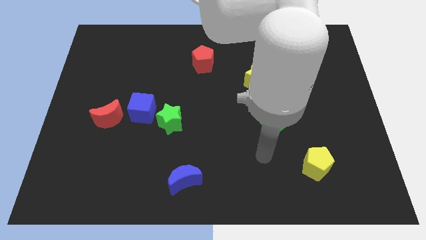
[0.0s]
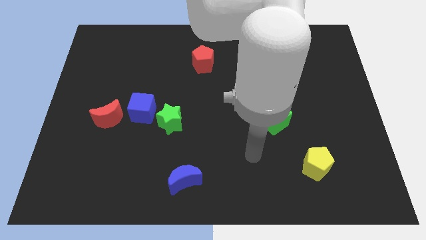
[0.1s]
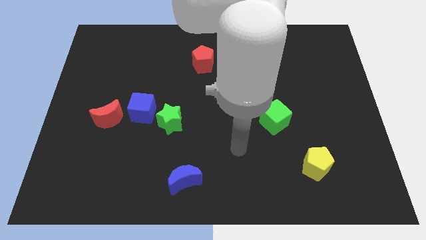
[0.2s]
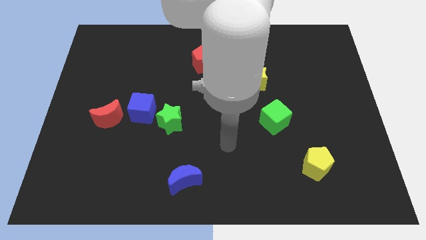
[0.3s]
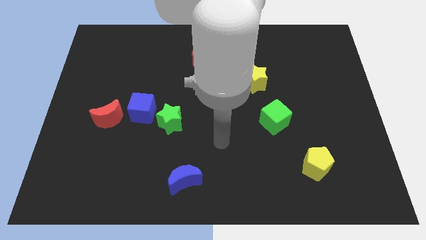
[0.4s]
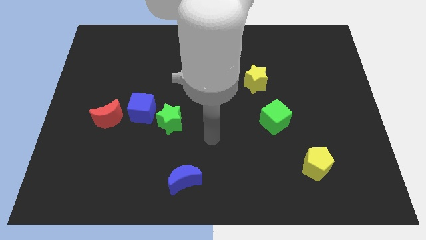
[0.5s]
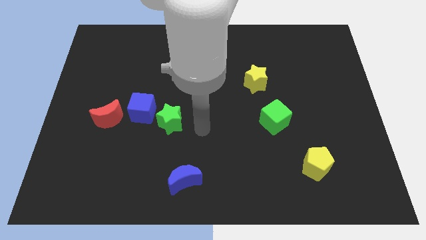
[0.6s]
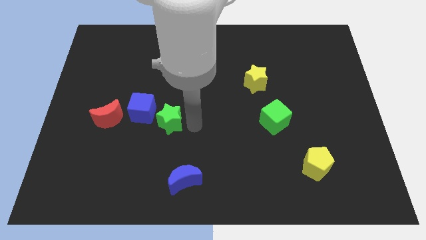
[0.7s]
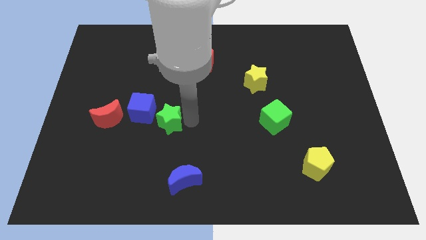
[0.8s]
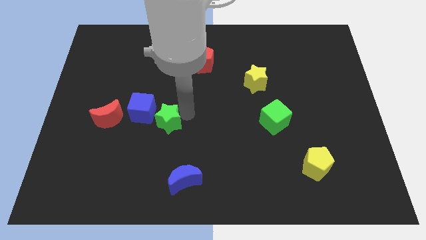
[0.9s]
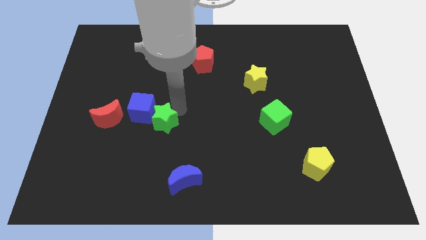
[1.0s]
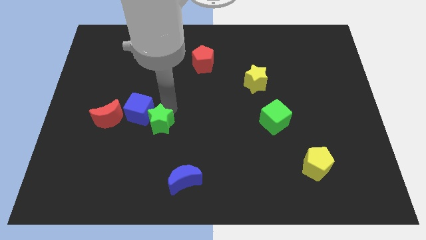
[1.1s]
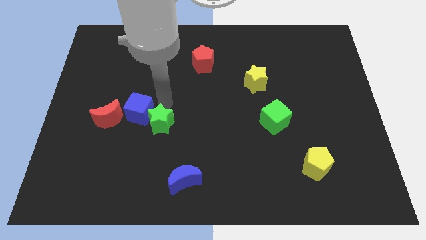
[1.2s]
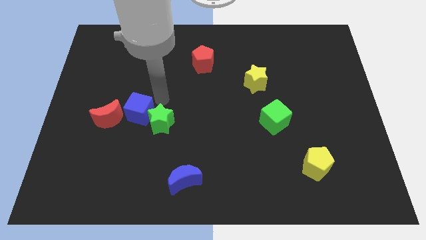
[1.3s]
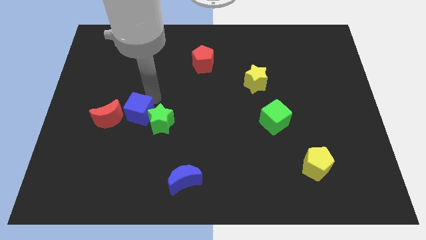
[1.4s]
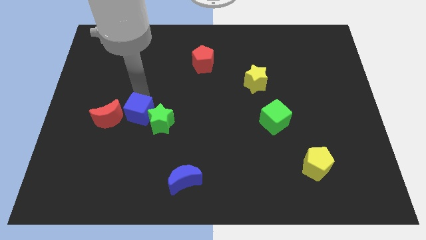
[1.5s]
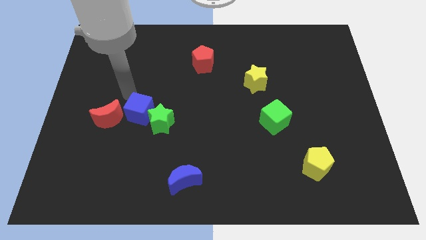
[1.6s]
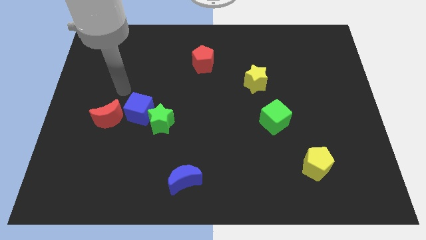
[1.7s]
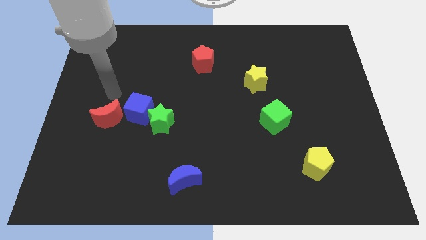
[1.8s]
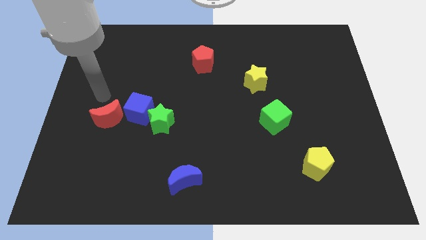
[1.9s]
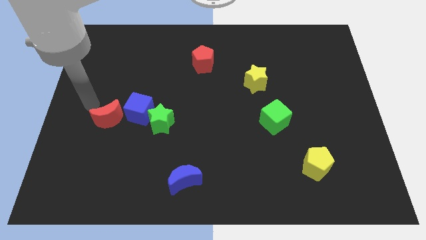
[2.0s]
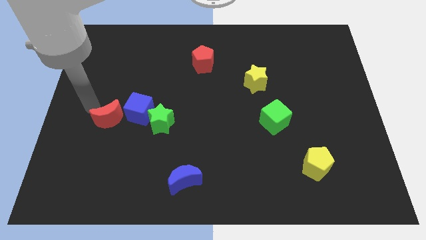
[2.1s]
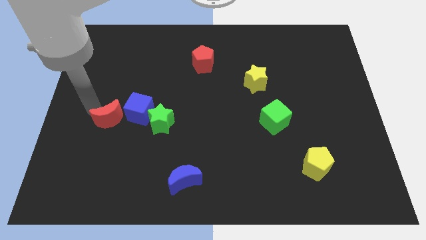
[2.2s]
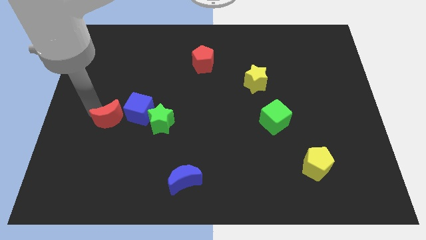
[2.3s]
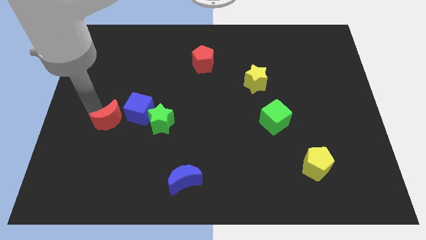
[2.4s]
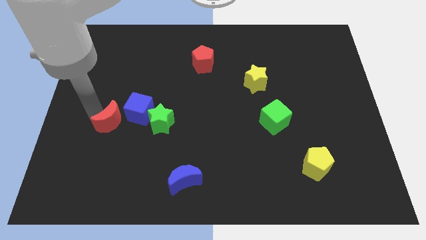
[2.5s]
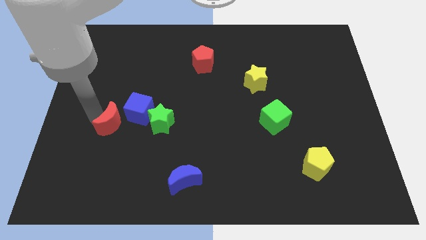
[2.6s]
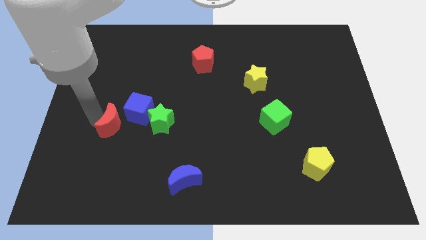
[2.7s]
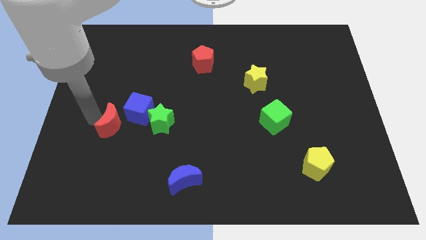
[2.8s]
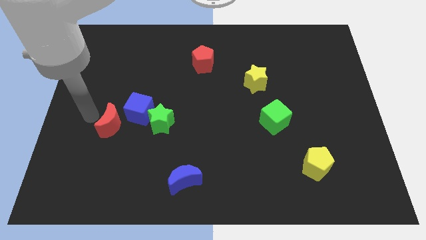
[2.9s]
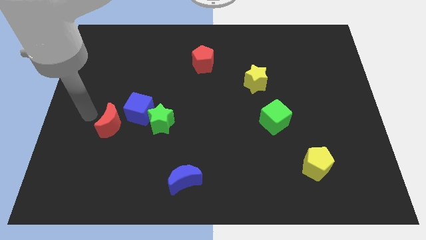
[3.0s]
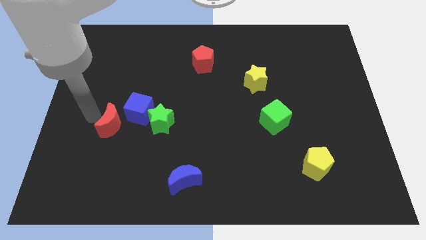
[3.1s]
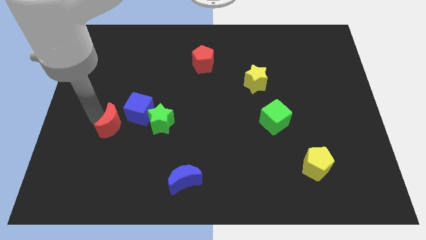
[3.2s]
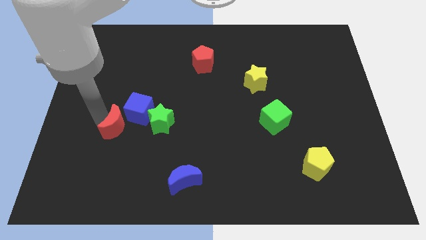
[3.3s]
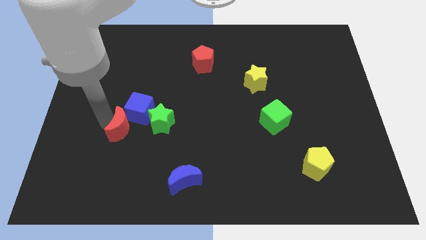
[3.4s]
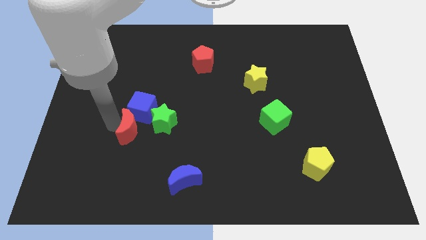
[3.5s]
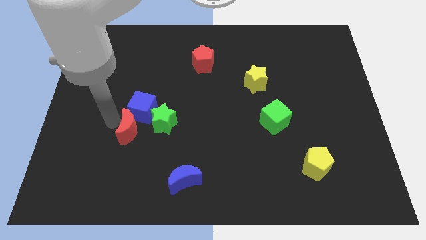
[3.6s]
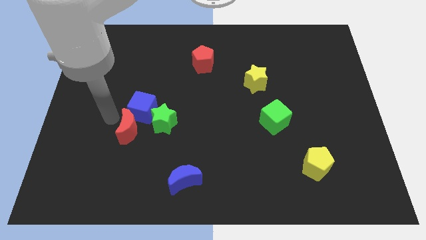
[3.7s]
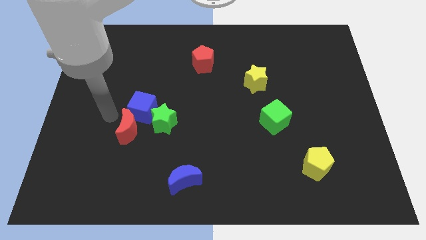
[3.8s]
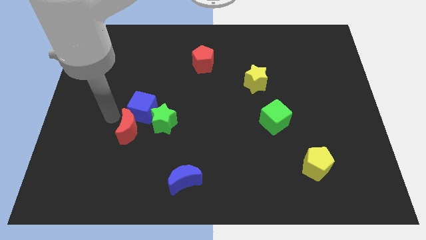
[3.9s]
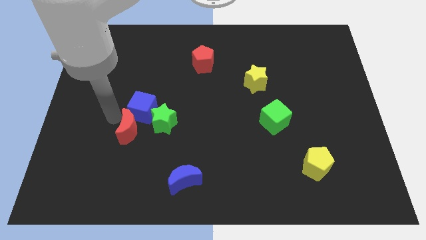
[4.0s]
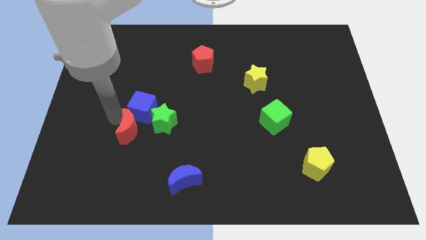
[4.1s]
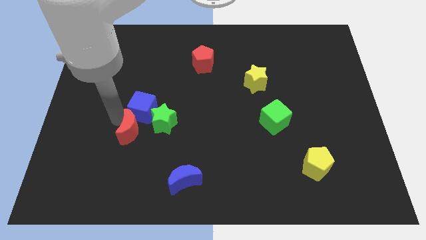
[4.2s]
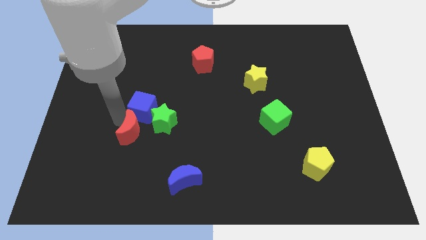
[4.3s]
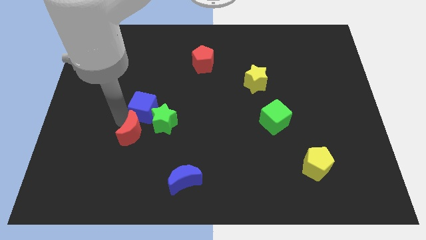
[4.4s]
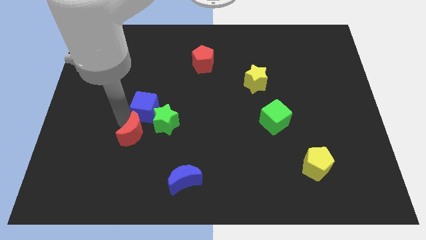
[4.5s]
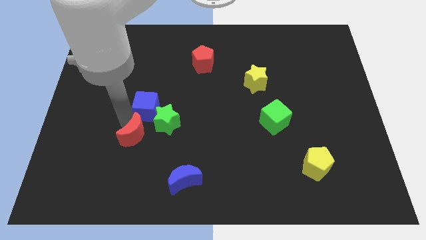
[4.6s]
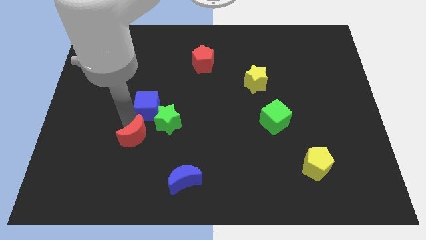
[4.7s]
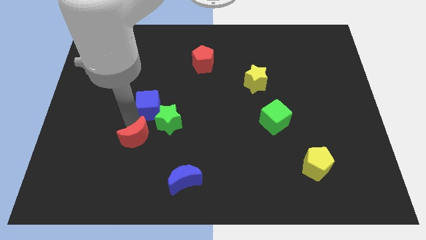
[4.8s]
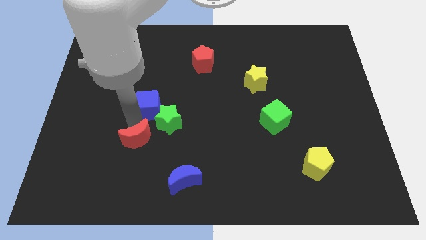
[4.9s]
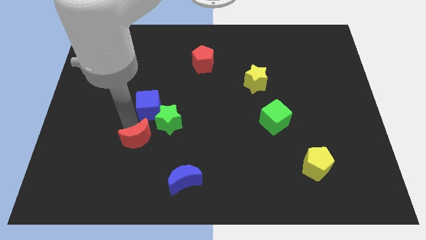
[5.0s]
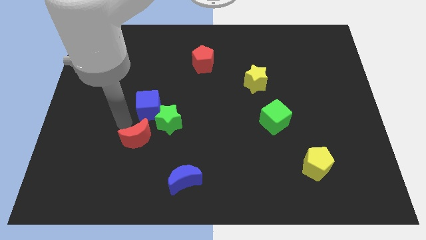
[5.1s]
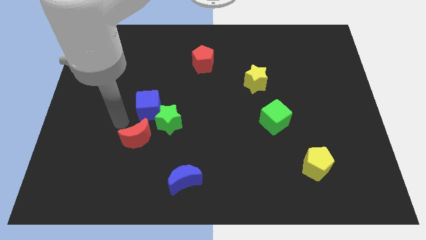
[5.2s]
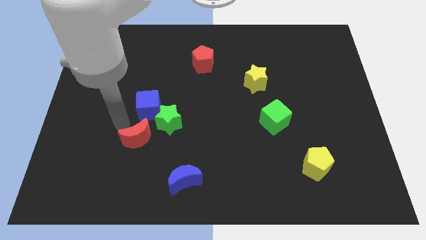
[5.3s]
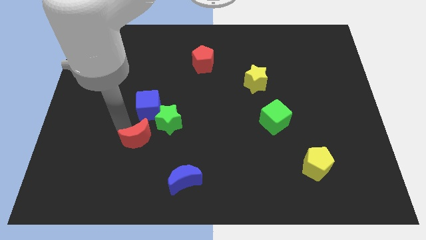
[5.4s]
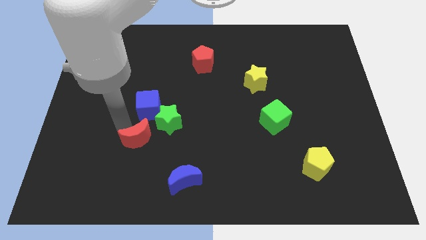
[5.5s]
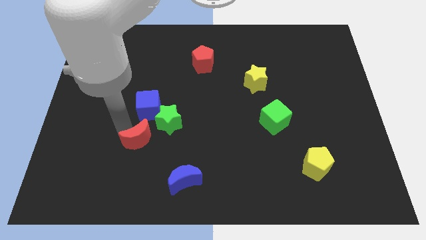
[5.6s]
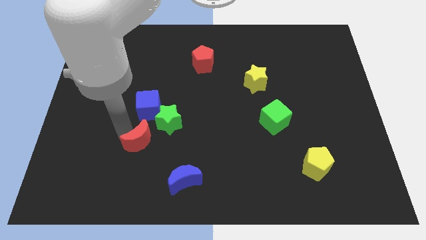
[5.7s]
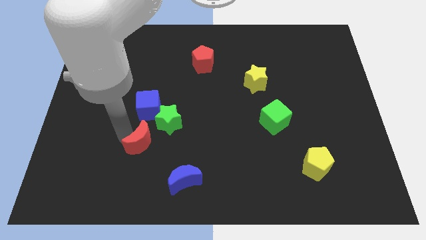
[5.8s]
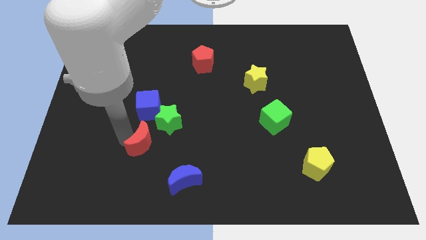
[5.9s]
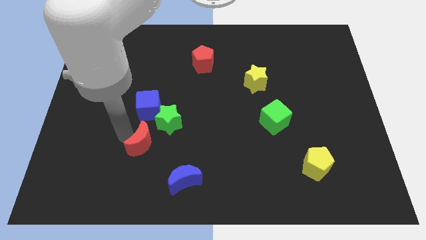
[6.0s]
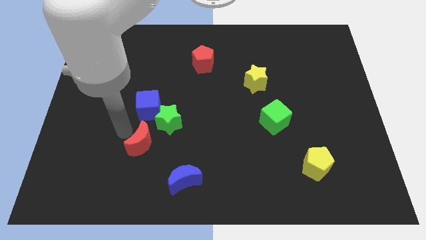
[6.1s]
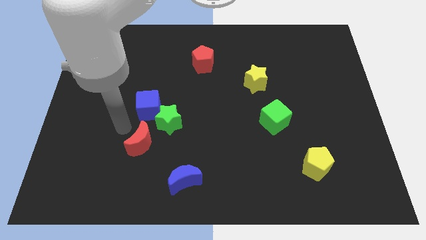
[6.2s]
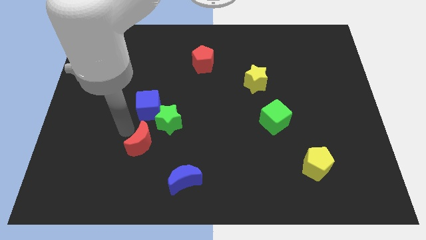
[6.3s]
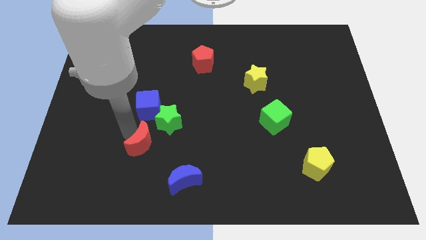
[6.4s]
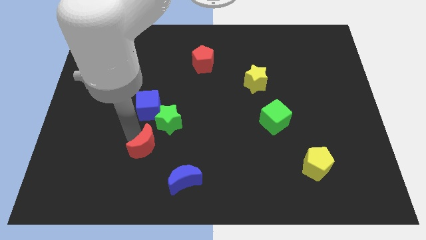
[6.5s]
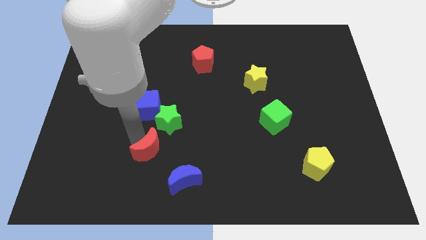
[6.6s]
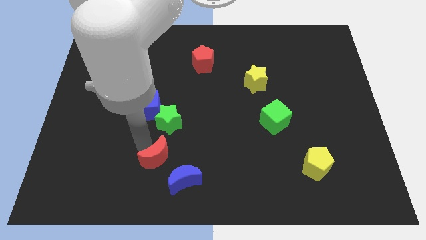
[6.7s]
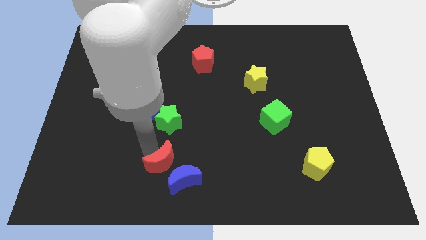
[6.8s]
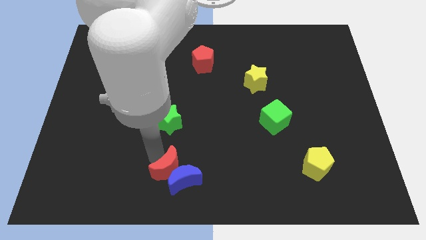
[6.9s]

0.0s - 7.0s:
push the red moon next to the blue moon

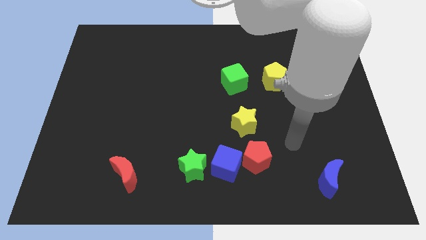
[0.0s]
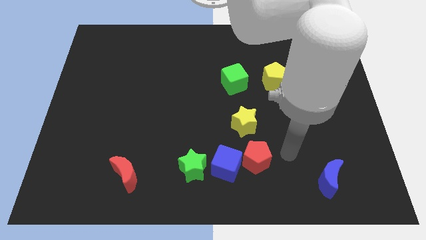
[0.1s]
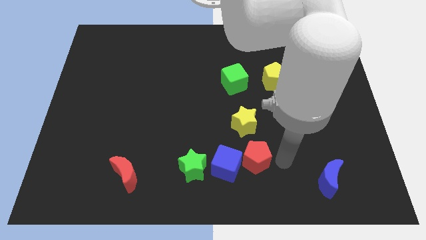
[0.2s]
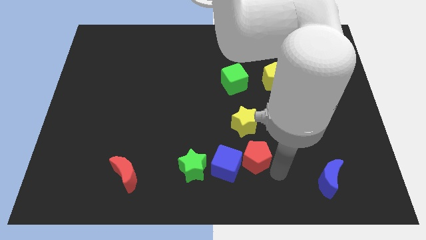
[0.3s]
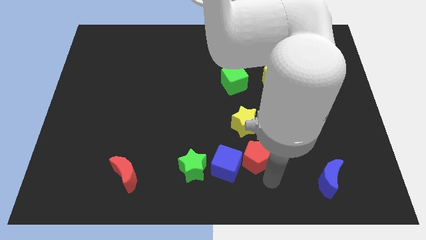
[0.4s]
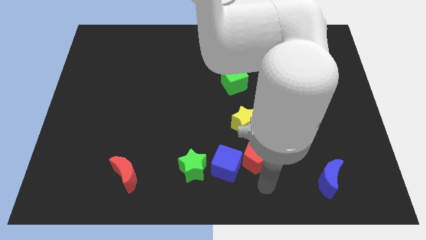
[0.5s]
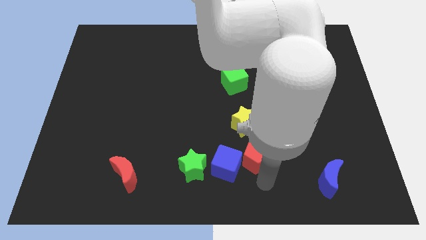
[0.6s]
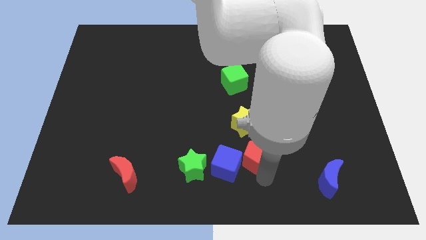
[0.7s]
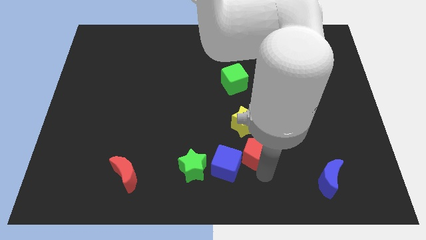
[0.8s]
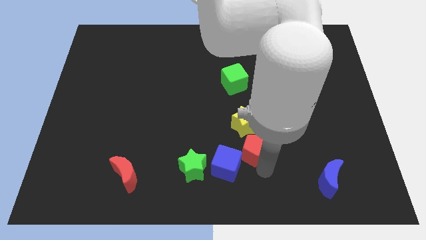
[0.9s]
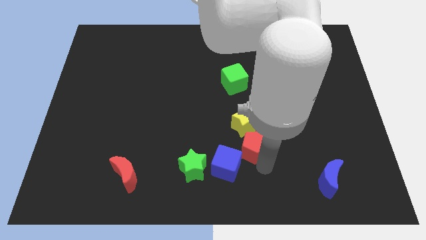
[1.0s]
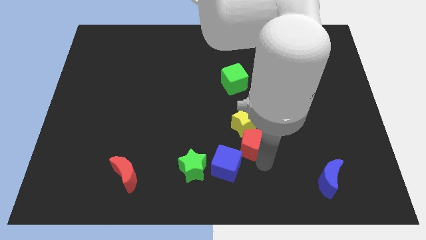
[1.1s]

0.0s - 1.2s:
put the red pentagon to the yellow star
